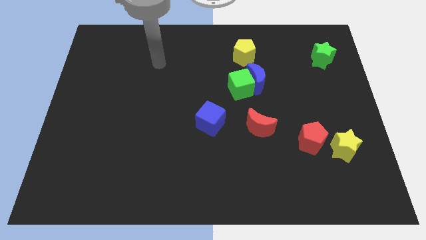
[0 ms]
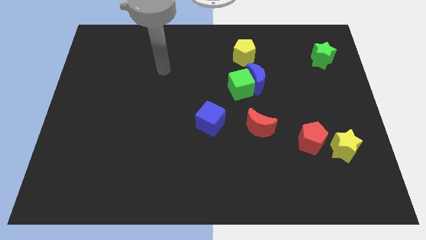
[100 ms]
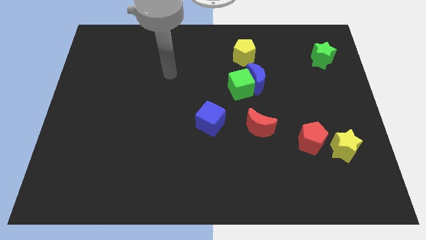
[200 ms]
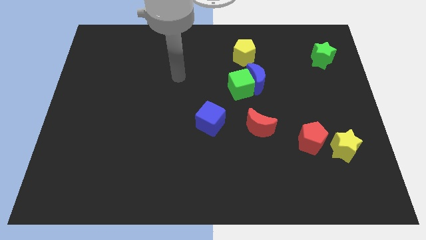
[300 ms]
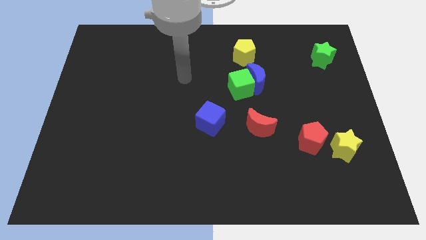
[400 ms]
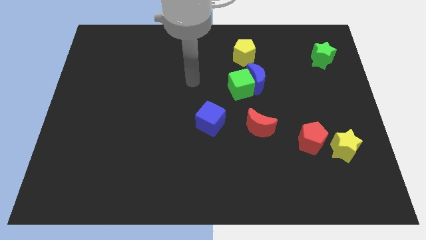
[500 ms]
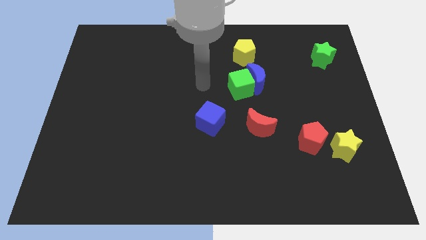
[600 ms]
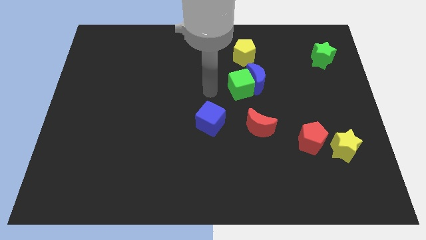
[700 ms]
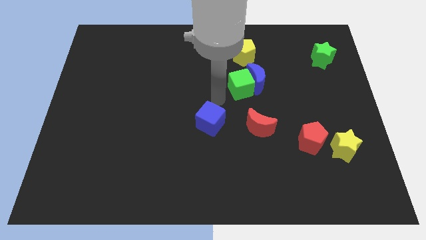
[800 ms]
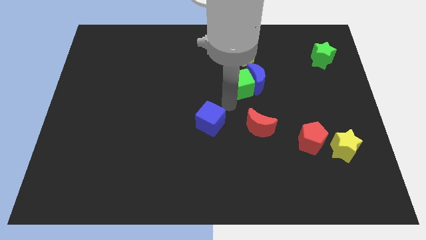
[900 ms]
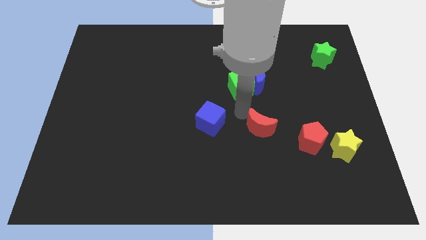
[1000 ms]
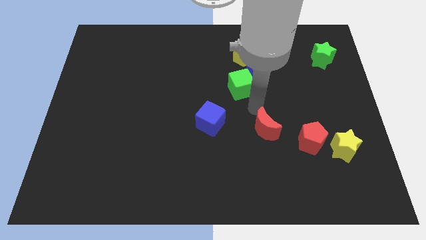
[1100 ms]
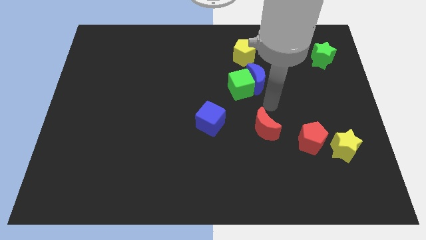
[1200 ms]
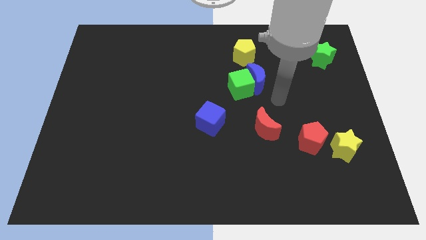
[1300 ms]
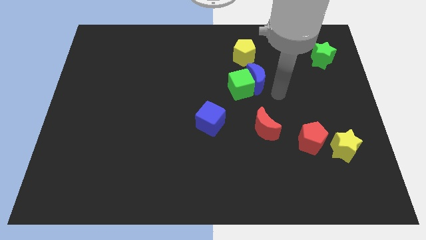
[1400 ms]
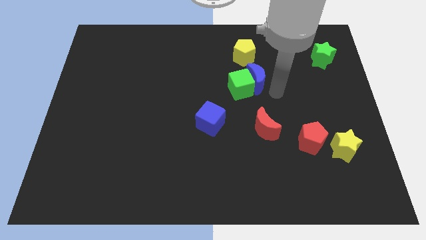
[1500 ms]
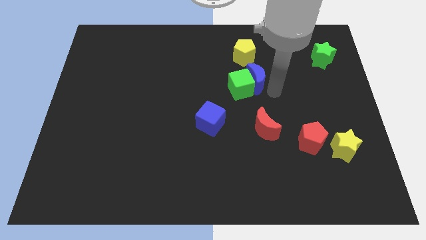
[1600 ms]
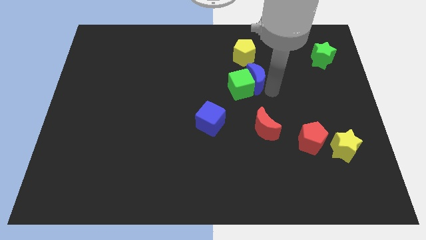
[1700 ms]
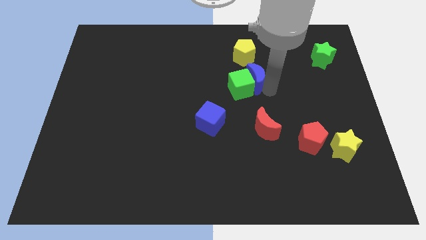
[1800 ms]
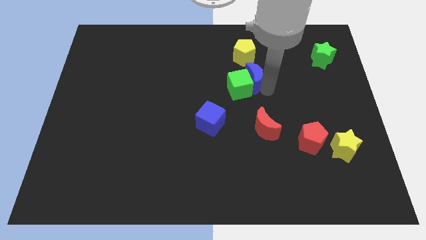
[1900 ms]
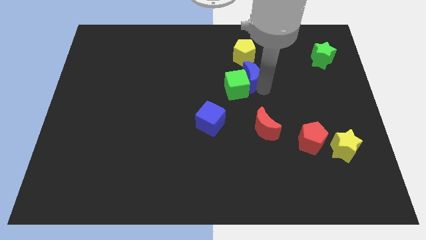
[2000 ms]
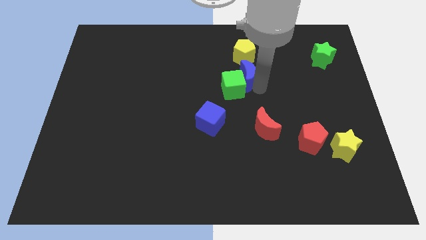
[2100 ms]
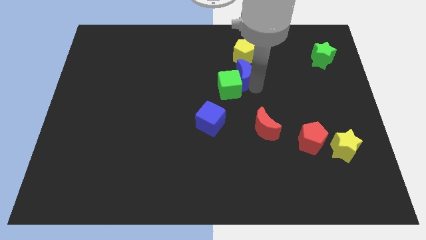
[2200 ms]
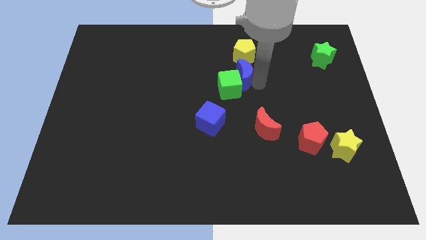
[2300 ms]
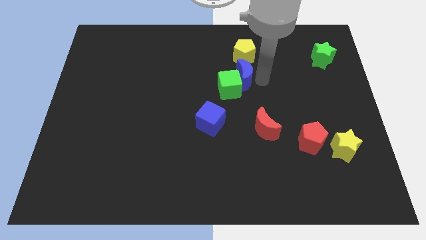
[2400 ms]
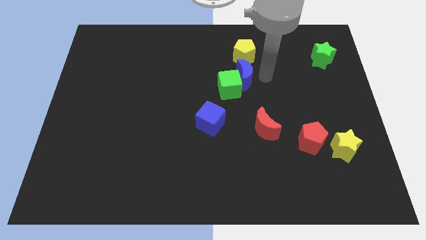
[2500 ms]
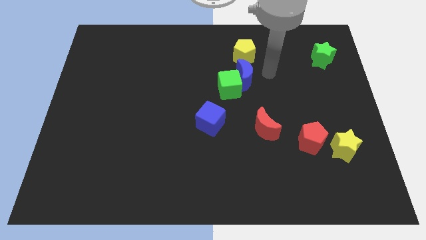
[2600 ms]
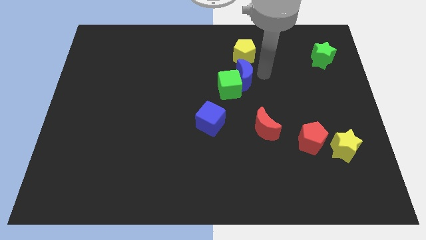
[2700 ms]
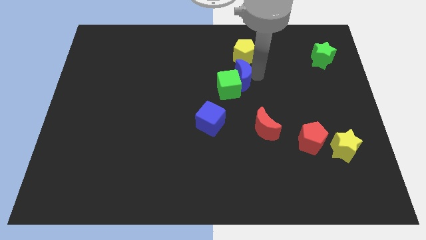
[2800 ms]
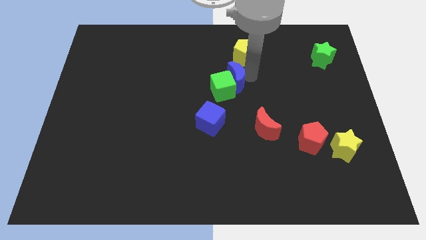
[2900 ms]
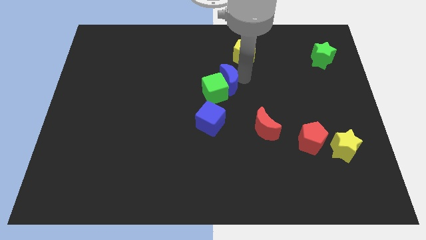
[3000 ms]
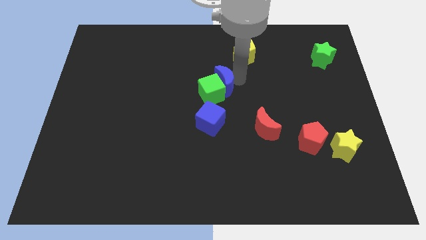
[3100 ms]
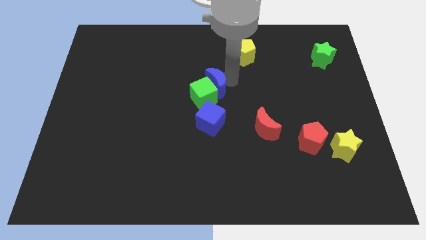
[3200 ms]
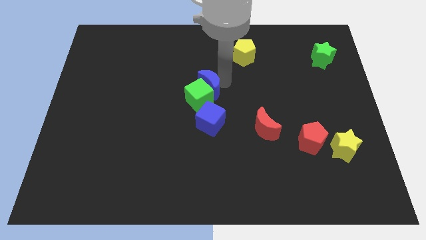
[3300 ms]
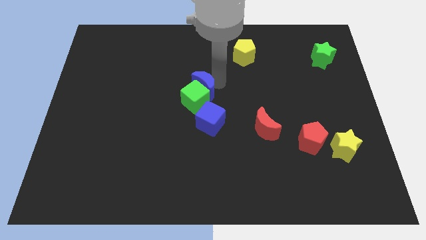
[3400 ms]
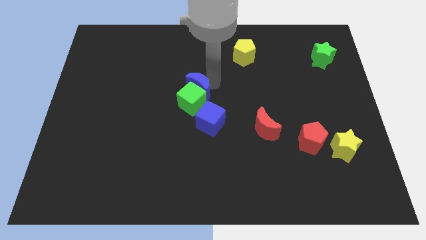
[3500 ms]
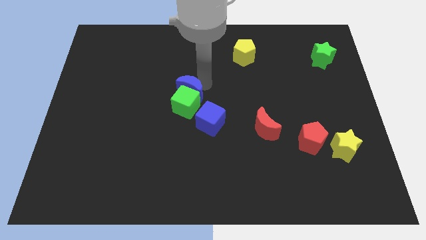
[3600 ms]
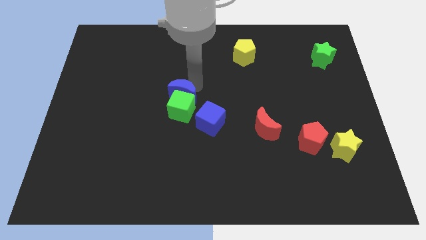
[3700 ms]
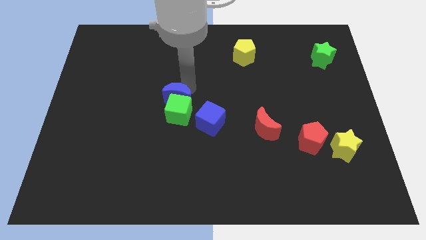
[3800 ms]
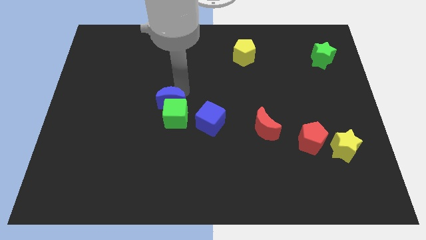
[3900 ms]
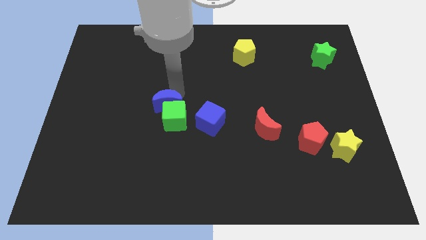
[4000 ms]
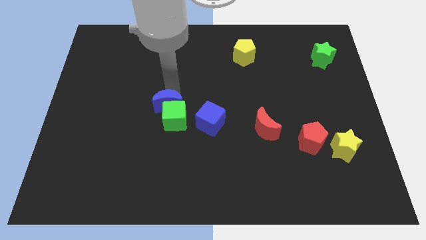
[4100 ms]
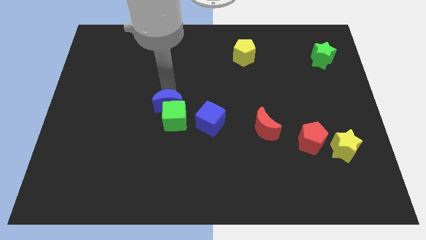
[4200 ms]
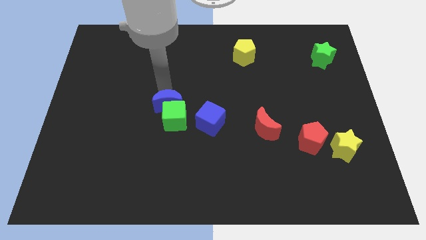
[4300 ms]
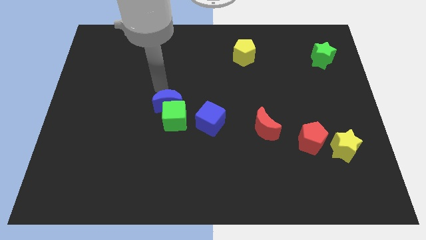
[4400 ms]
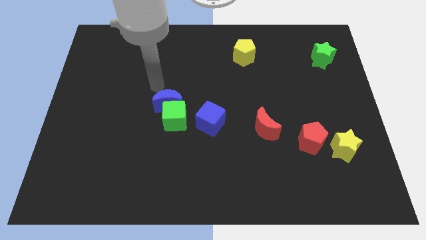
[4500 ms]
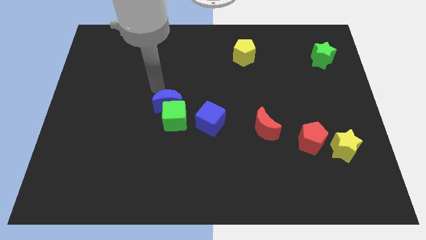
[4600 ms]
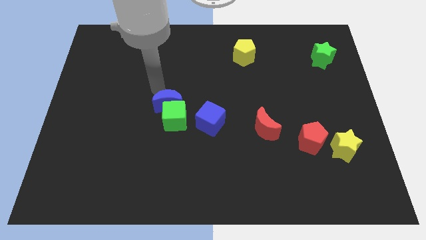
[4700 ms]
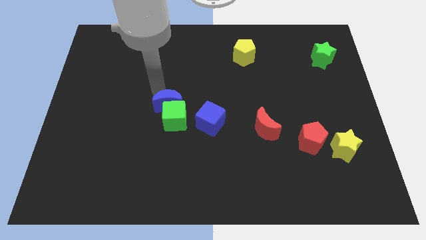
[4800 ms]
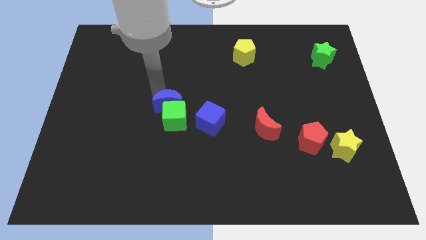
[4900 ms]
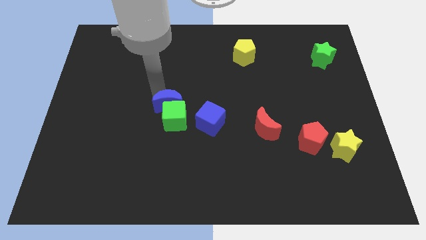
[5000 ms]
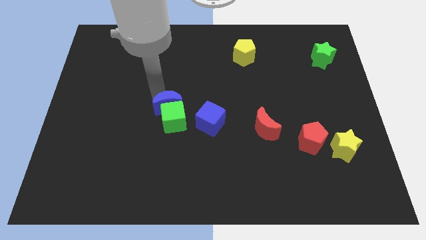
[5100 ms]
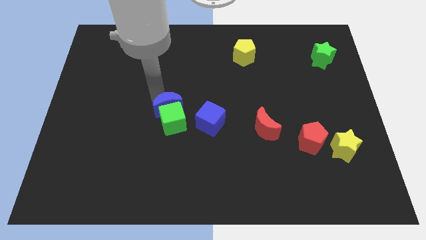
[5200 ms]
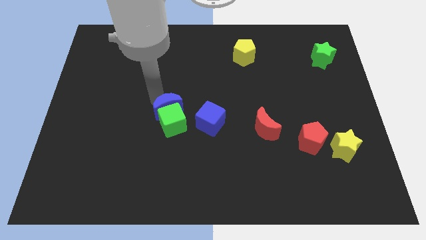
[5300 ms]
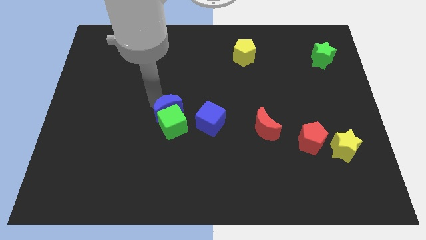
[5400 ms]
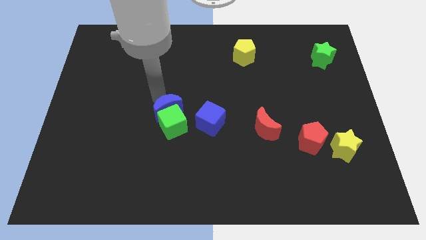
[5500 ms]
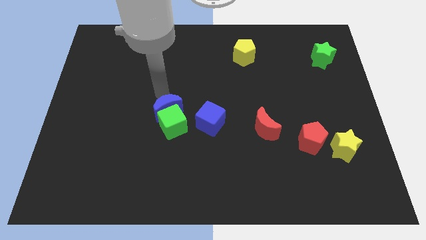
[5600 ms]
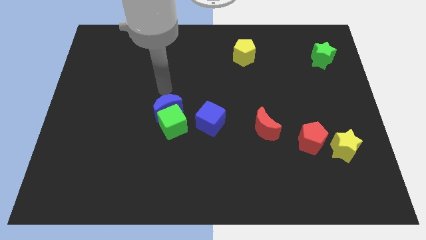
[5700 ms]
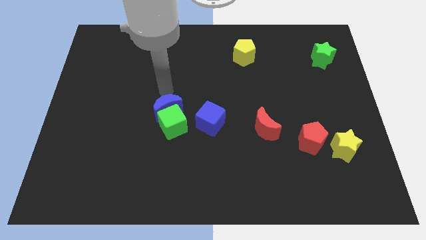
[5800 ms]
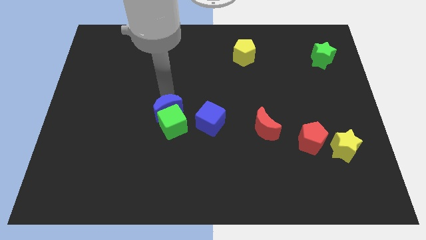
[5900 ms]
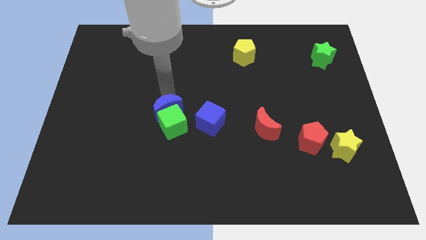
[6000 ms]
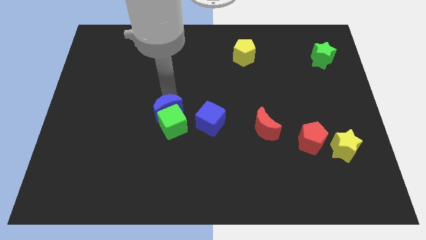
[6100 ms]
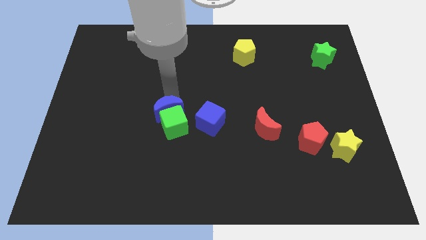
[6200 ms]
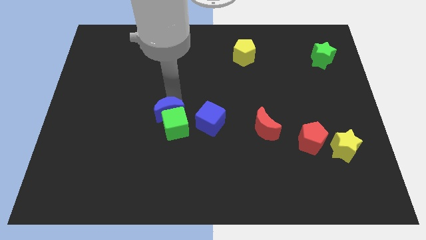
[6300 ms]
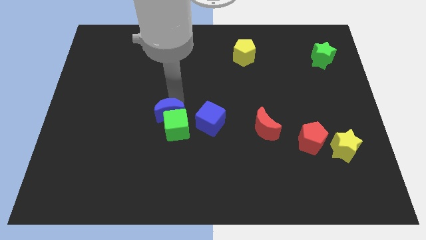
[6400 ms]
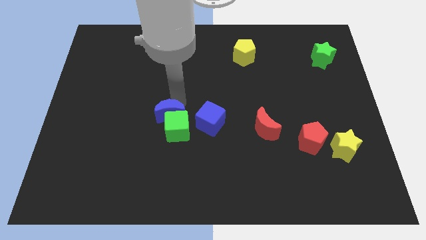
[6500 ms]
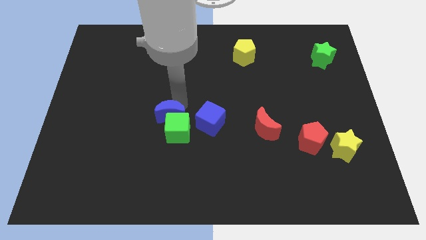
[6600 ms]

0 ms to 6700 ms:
slide the blue moon down and to the left

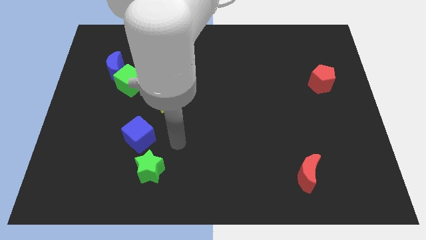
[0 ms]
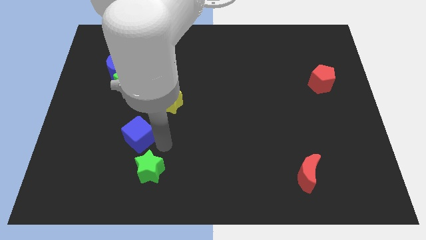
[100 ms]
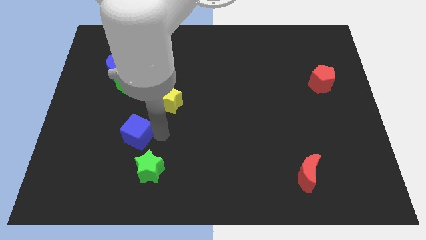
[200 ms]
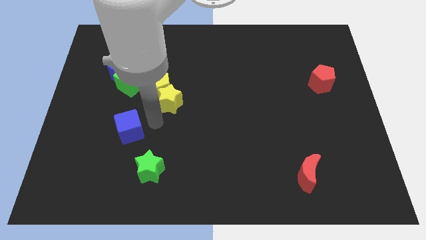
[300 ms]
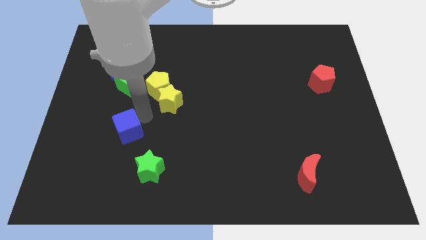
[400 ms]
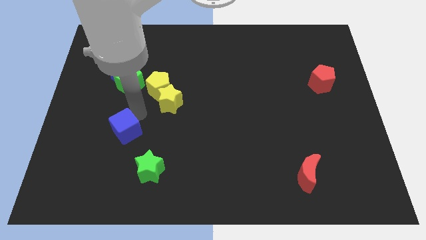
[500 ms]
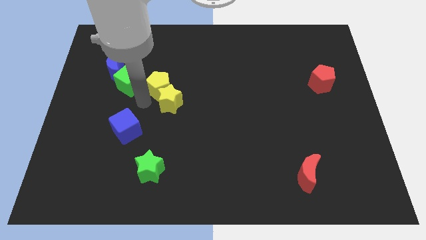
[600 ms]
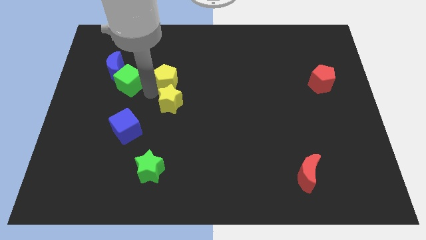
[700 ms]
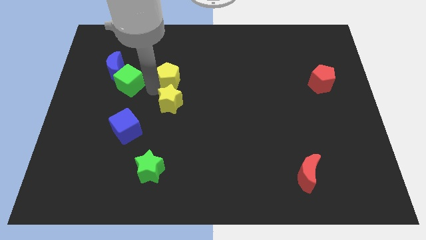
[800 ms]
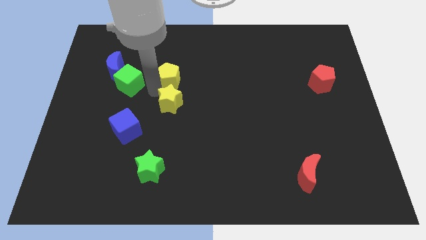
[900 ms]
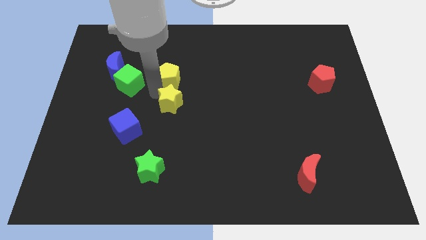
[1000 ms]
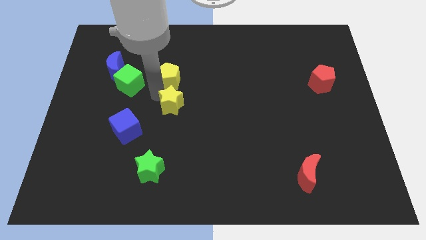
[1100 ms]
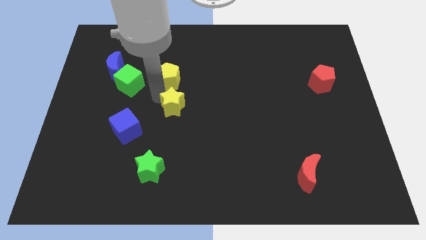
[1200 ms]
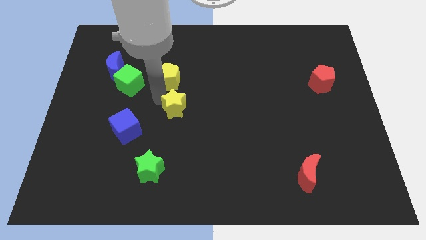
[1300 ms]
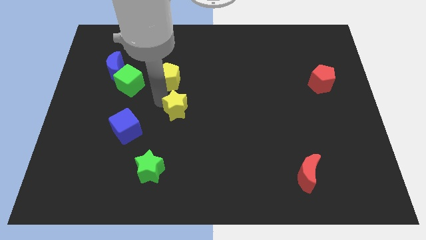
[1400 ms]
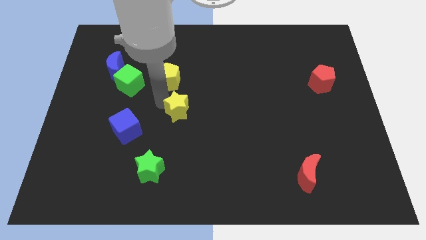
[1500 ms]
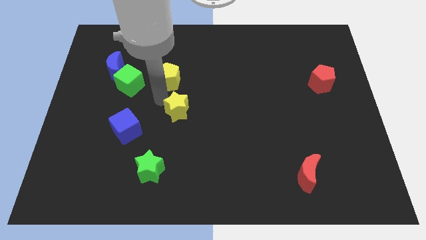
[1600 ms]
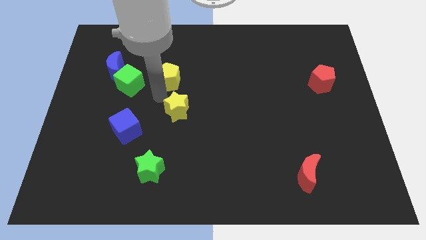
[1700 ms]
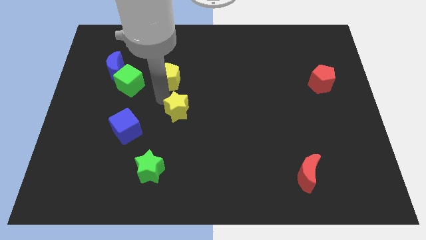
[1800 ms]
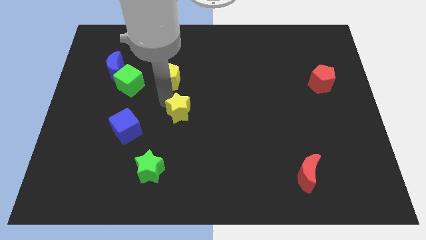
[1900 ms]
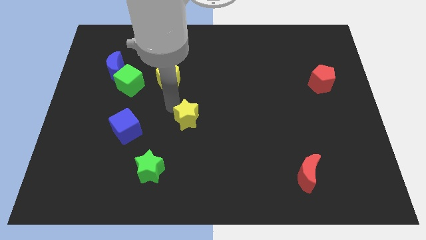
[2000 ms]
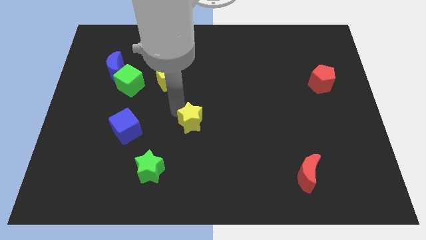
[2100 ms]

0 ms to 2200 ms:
push the yellow star diagonally down and to the right a little bit
